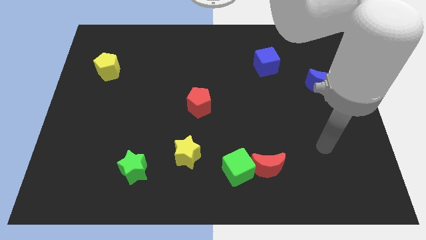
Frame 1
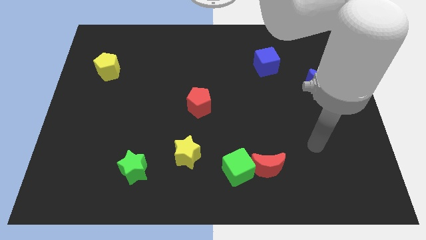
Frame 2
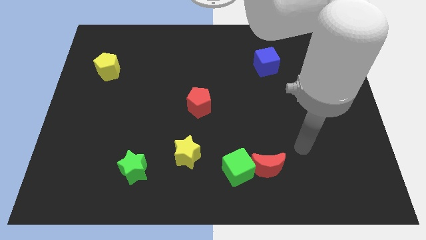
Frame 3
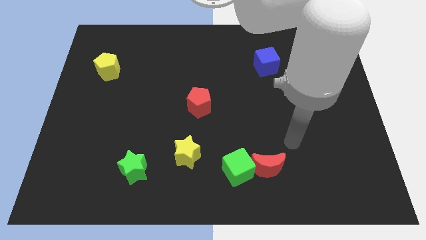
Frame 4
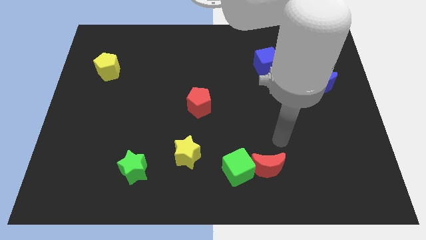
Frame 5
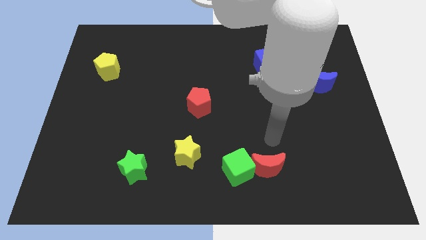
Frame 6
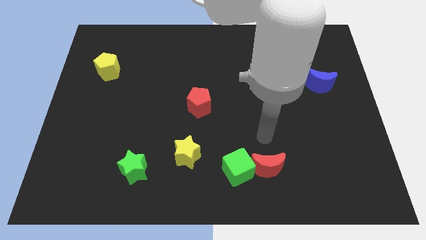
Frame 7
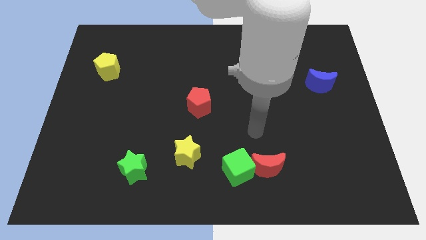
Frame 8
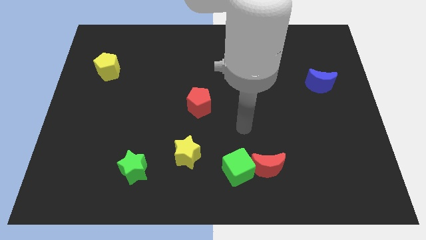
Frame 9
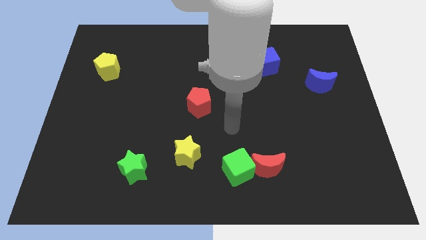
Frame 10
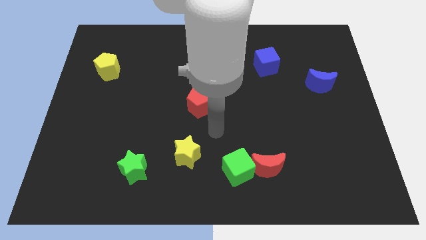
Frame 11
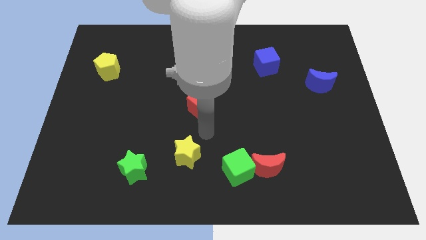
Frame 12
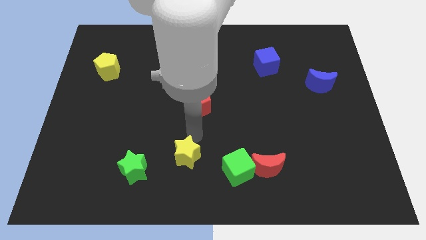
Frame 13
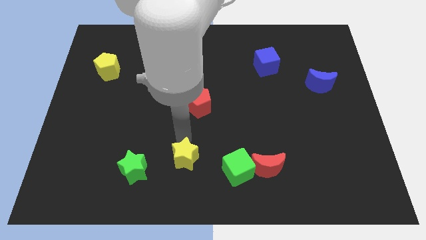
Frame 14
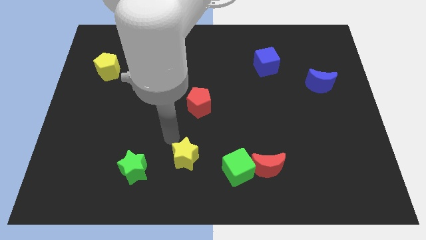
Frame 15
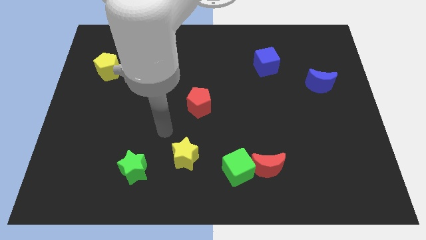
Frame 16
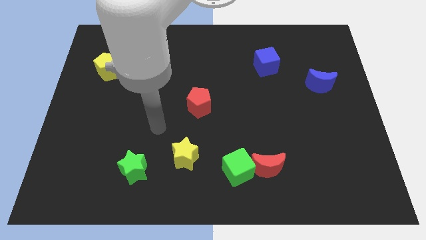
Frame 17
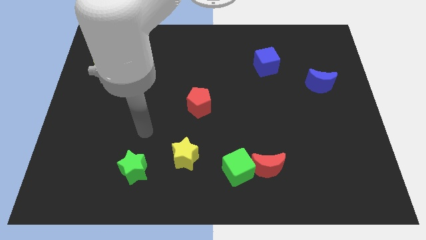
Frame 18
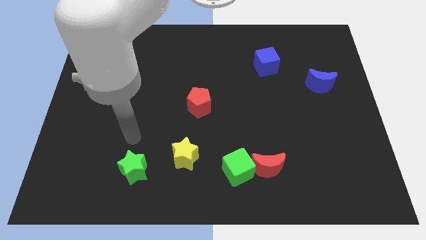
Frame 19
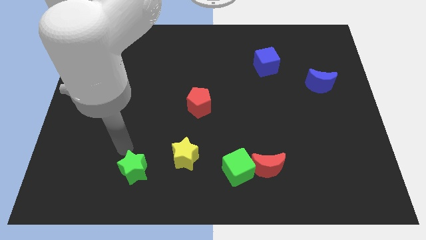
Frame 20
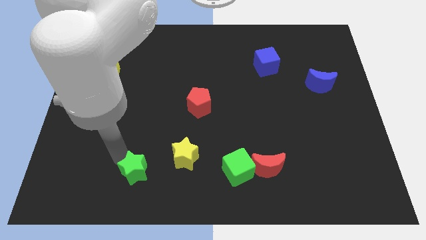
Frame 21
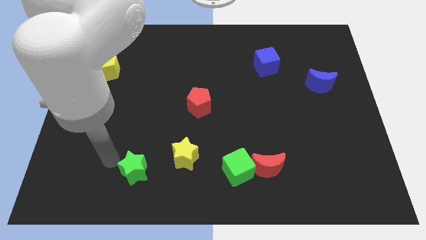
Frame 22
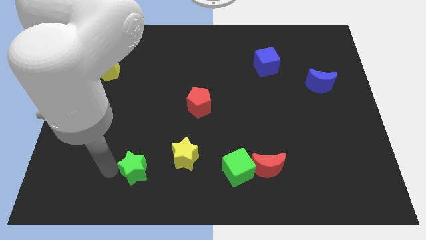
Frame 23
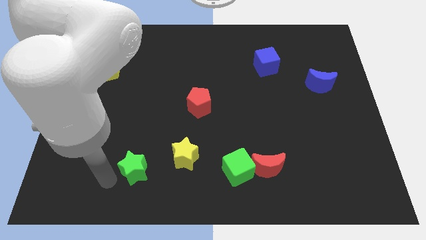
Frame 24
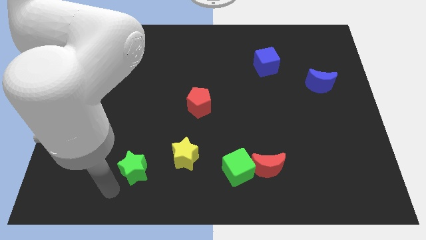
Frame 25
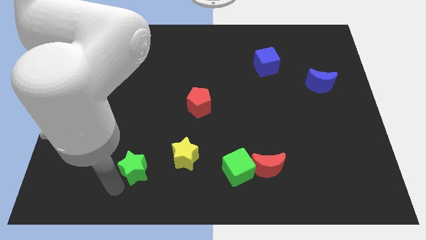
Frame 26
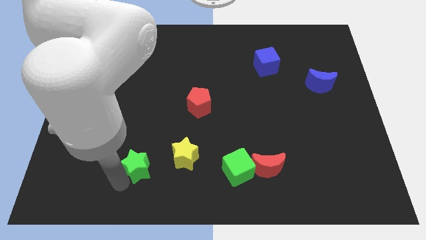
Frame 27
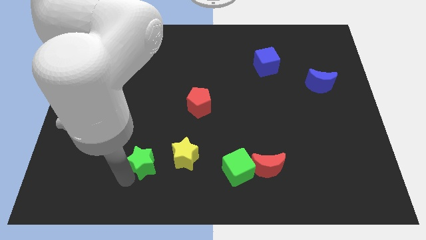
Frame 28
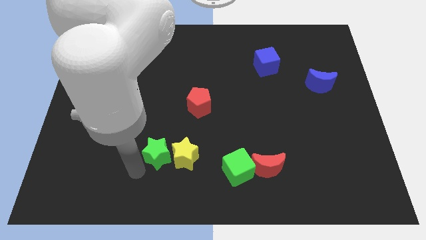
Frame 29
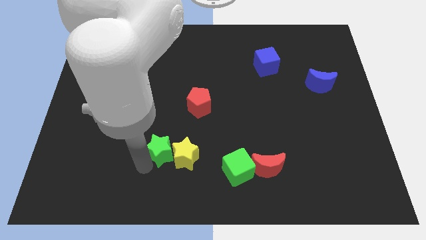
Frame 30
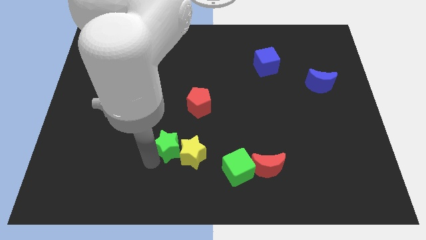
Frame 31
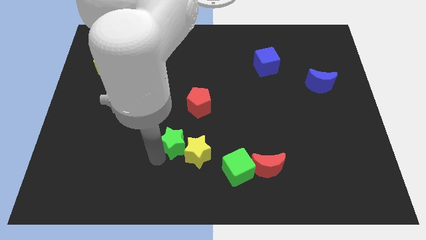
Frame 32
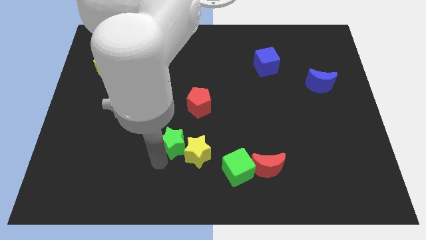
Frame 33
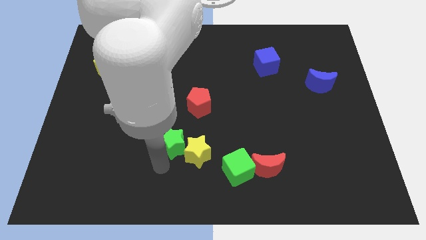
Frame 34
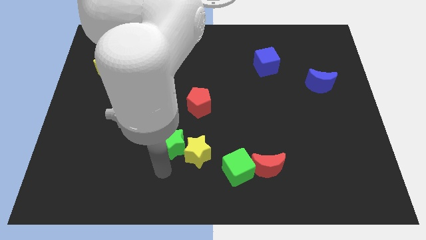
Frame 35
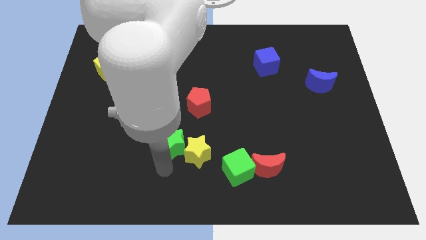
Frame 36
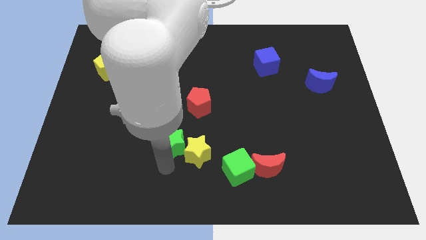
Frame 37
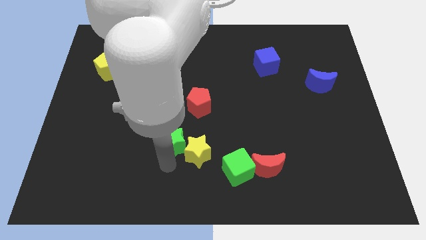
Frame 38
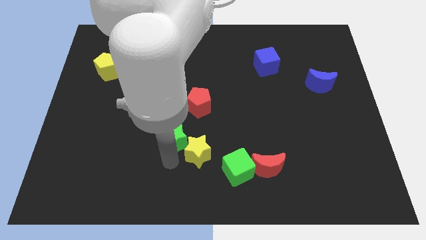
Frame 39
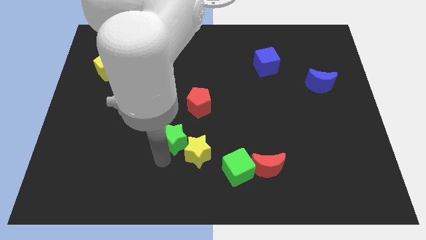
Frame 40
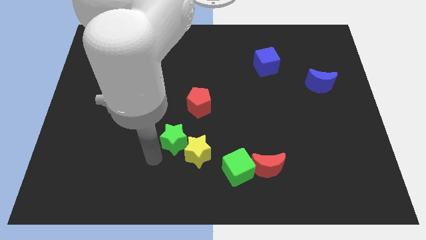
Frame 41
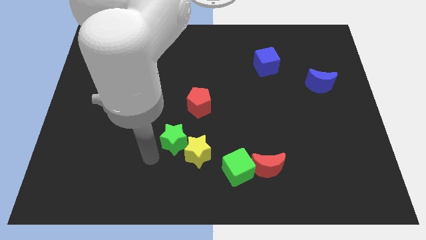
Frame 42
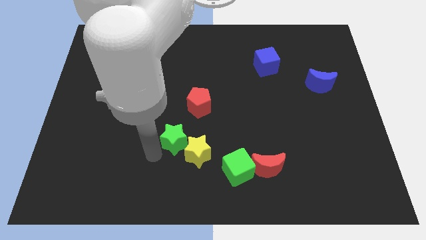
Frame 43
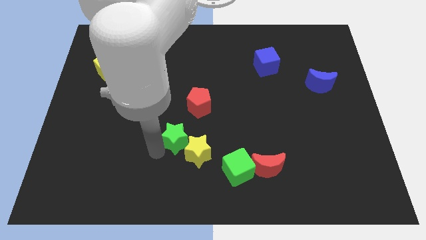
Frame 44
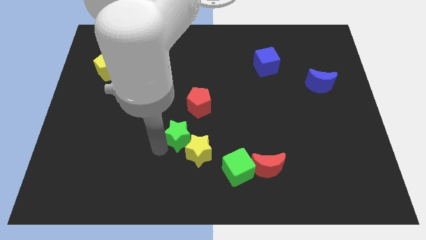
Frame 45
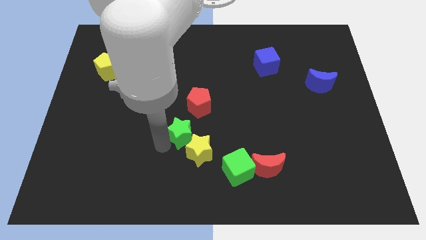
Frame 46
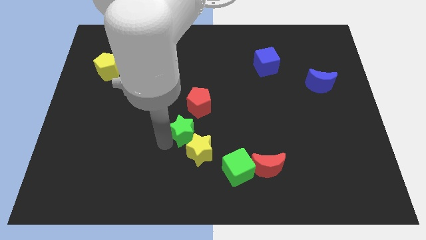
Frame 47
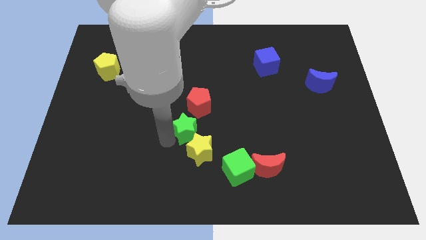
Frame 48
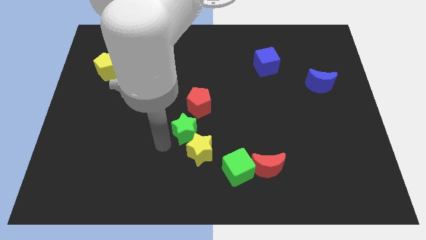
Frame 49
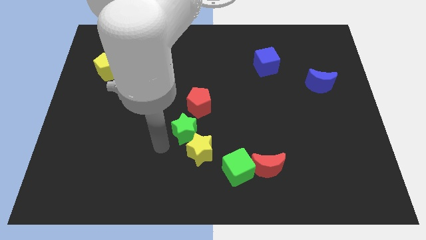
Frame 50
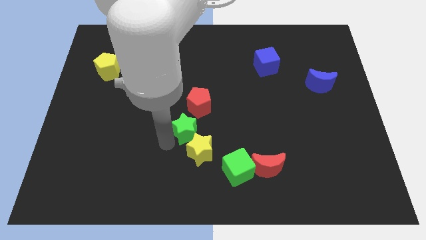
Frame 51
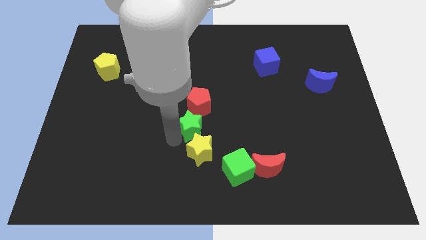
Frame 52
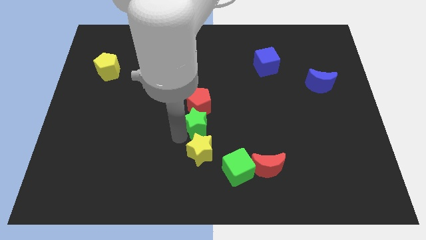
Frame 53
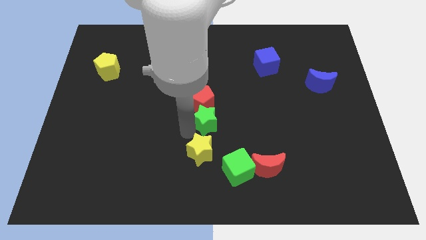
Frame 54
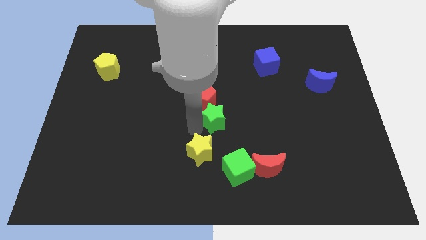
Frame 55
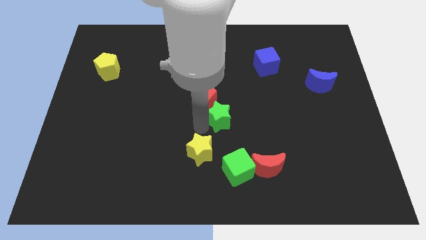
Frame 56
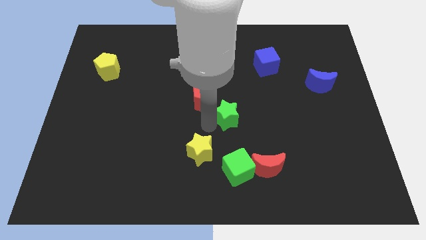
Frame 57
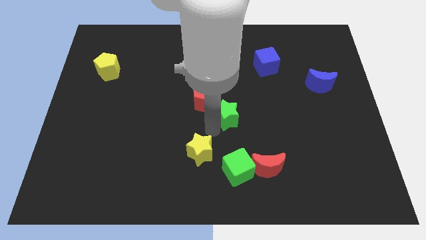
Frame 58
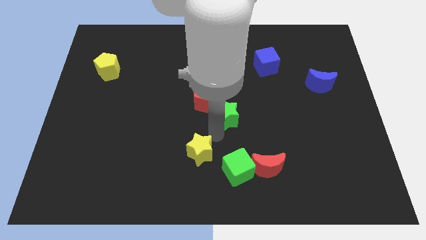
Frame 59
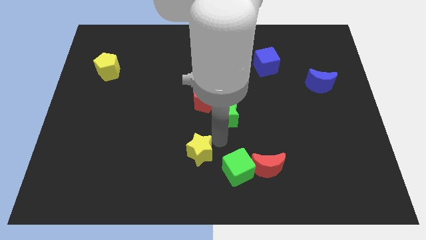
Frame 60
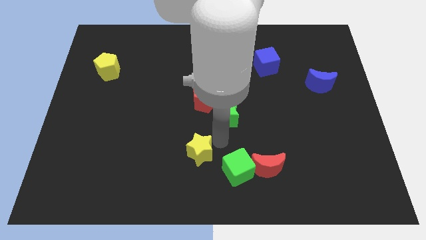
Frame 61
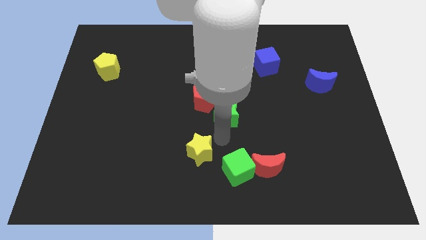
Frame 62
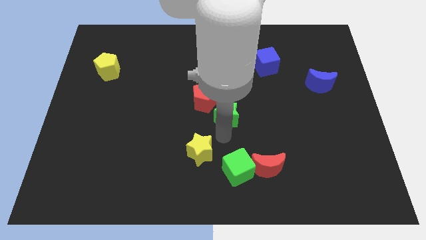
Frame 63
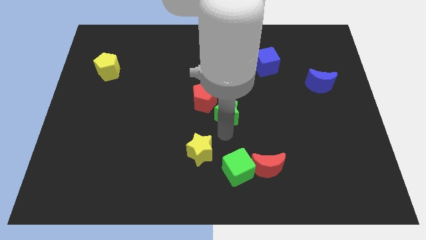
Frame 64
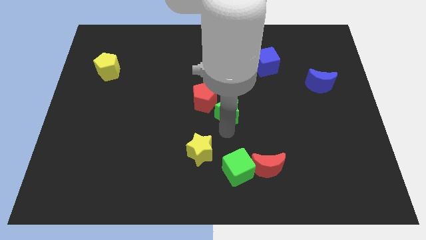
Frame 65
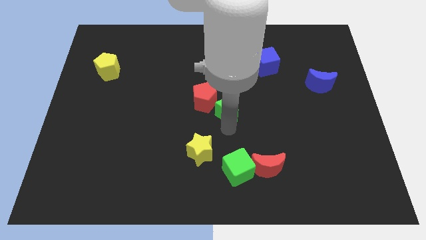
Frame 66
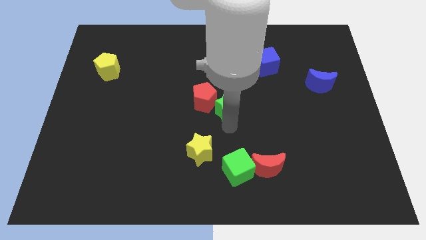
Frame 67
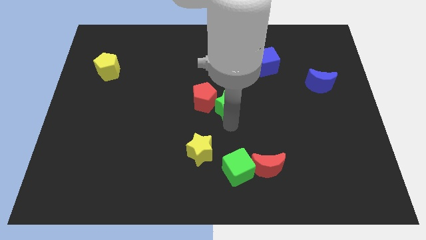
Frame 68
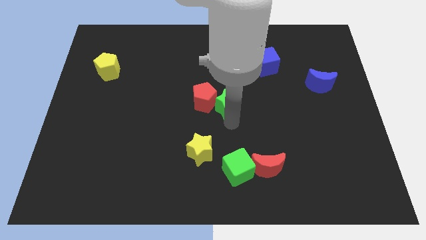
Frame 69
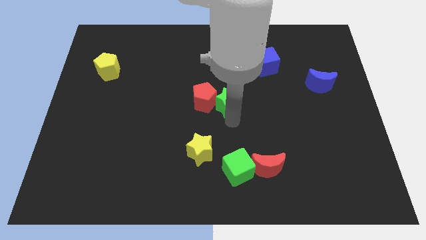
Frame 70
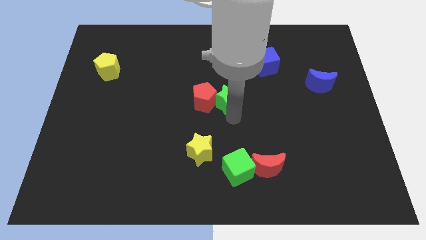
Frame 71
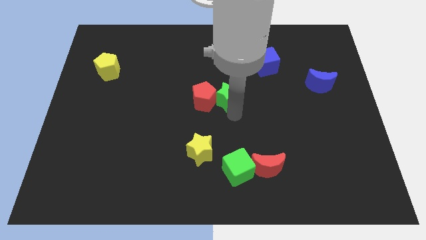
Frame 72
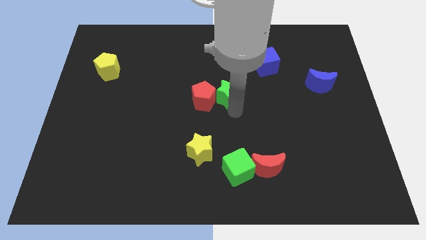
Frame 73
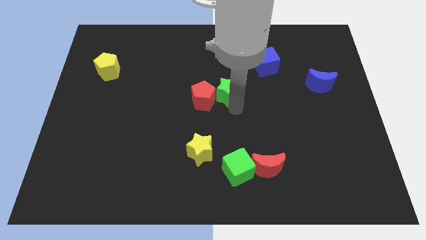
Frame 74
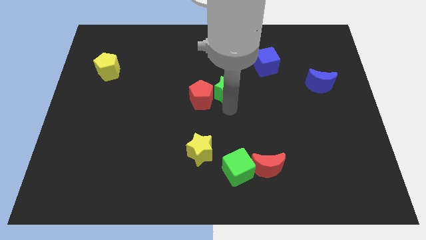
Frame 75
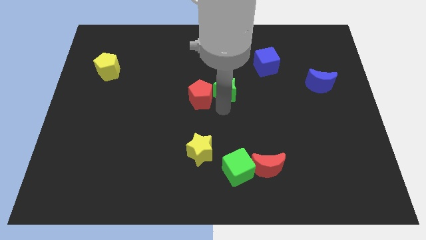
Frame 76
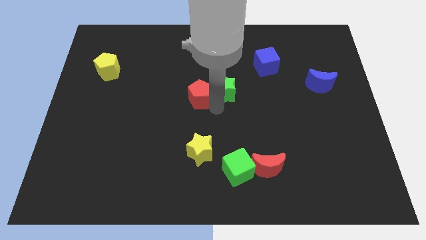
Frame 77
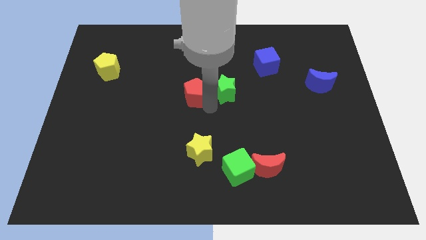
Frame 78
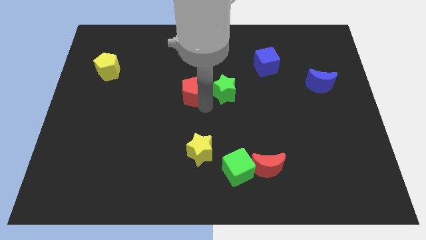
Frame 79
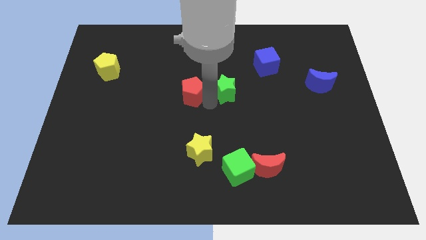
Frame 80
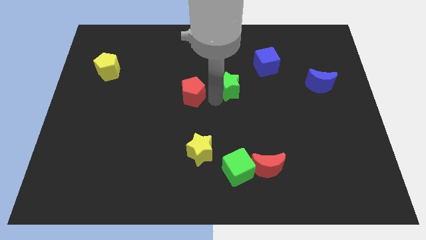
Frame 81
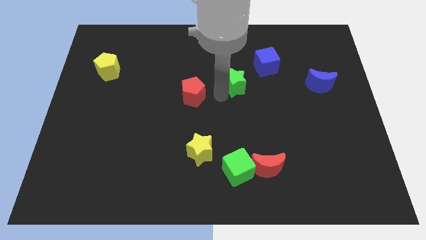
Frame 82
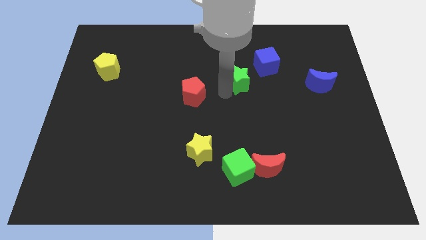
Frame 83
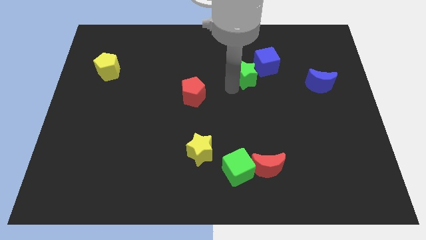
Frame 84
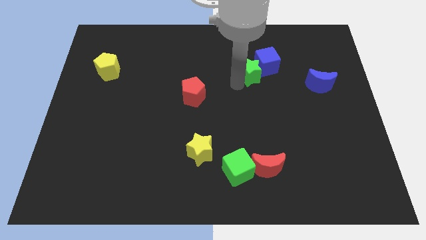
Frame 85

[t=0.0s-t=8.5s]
push the green star close to the blue cube
